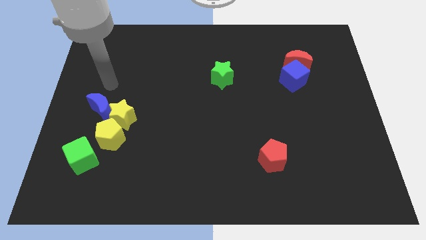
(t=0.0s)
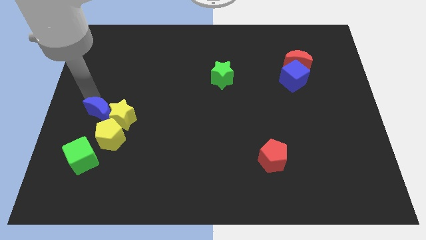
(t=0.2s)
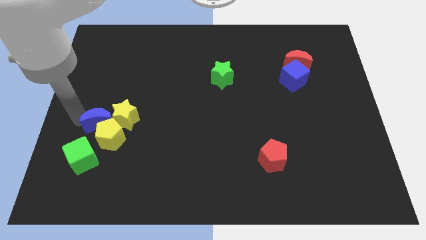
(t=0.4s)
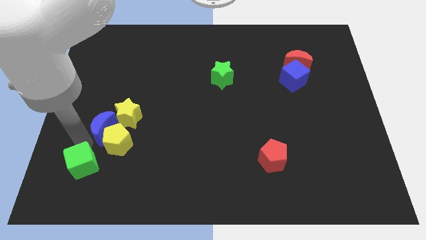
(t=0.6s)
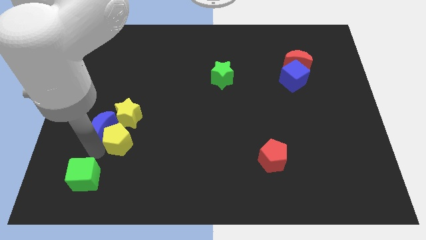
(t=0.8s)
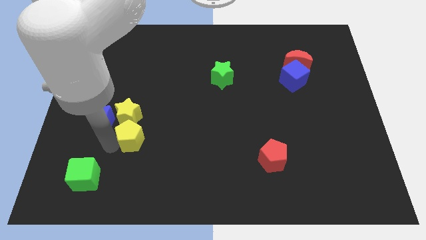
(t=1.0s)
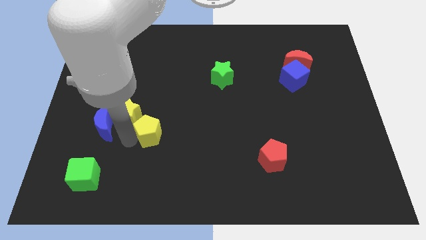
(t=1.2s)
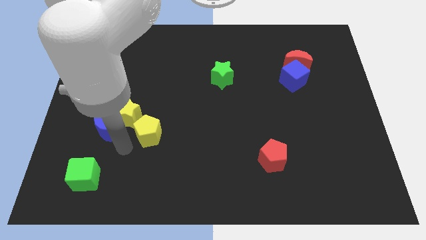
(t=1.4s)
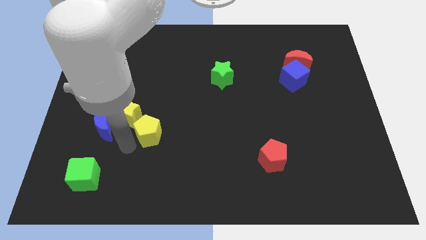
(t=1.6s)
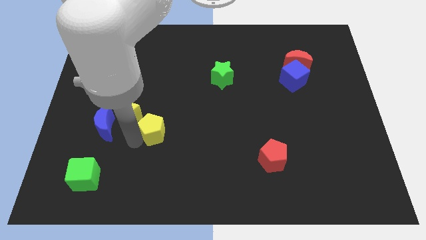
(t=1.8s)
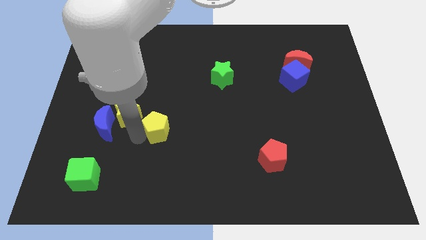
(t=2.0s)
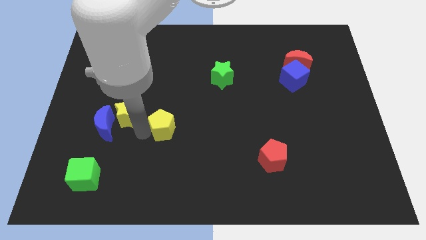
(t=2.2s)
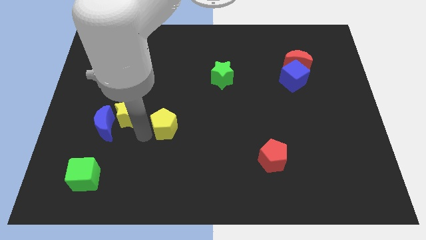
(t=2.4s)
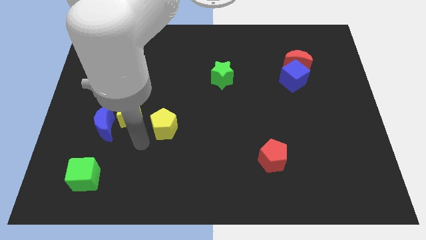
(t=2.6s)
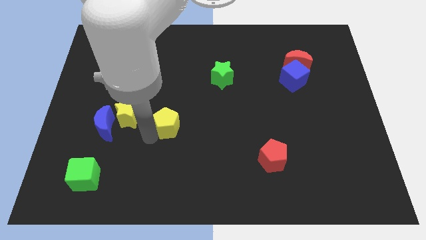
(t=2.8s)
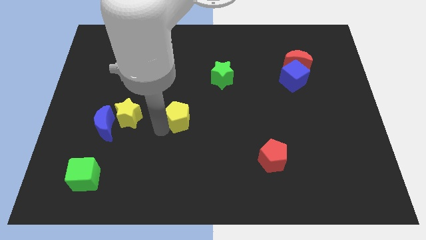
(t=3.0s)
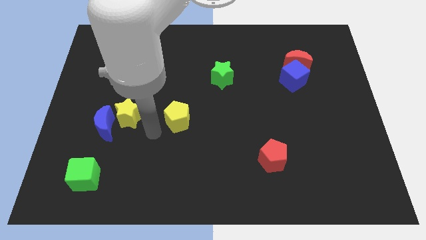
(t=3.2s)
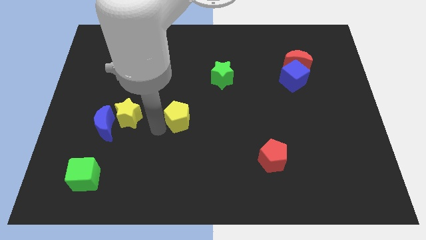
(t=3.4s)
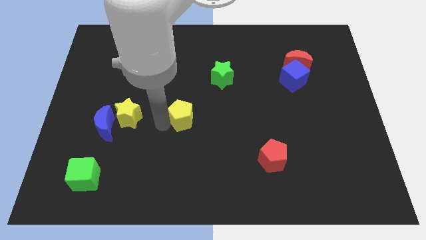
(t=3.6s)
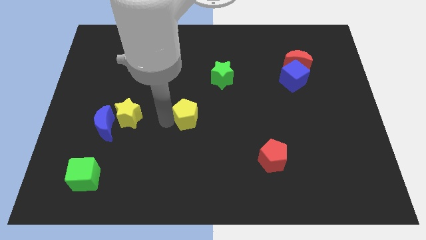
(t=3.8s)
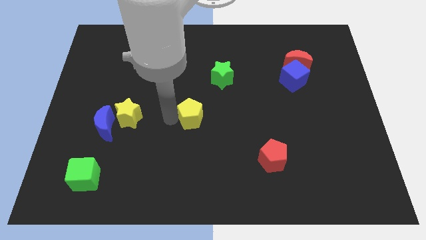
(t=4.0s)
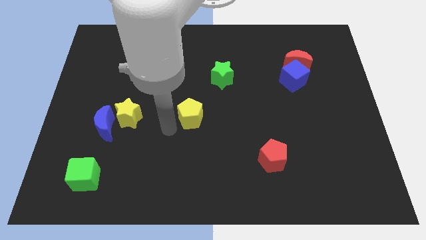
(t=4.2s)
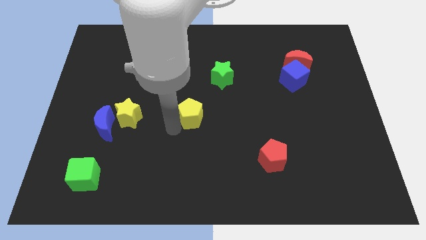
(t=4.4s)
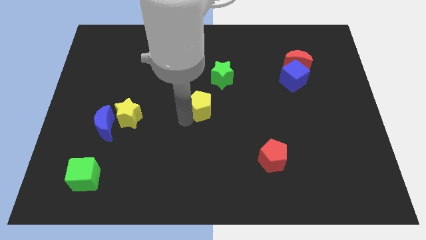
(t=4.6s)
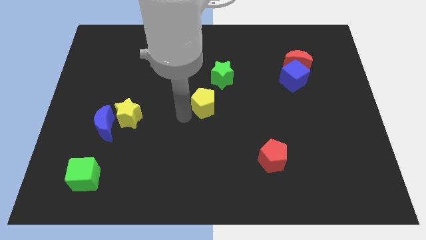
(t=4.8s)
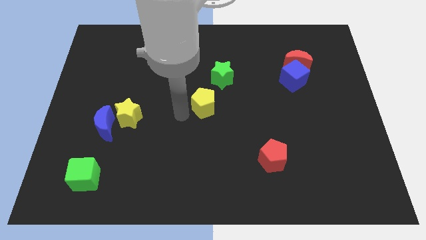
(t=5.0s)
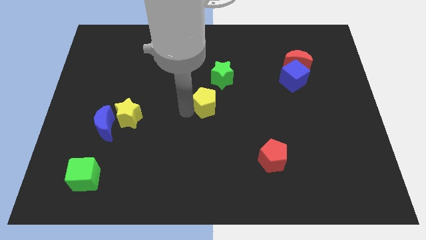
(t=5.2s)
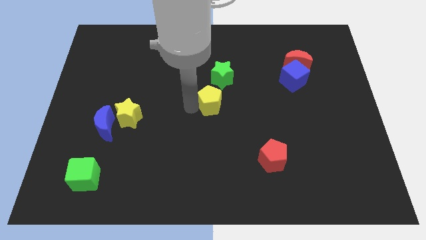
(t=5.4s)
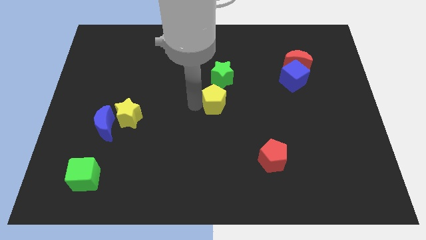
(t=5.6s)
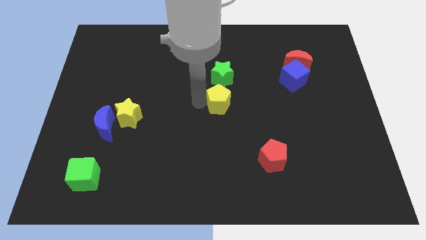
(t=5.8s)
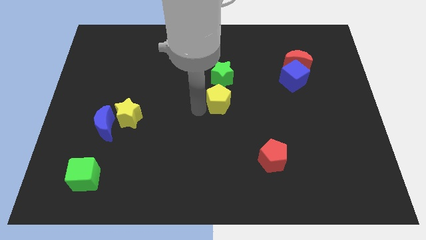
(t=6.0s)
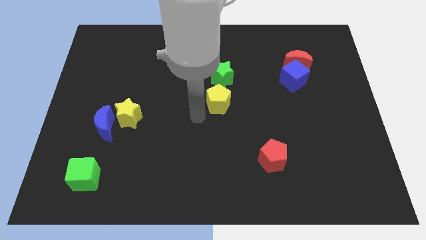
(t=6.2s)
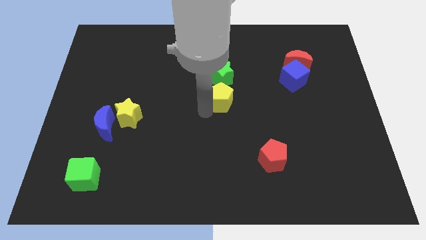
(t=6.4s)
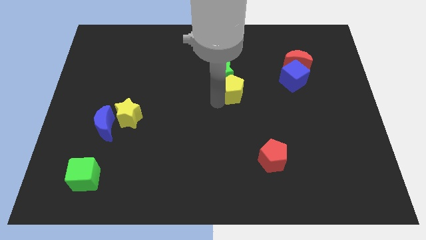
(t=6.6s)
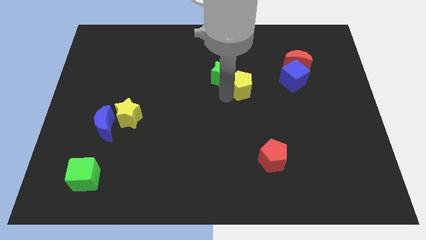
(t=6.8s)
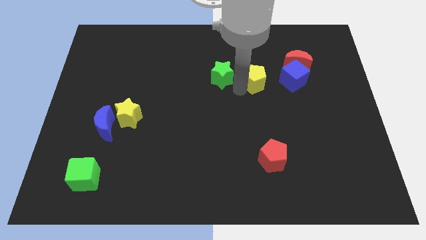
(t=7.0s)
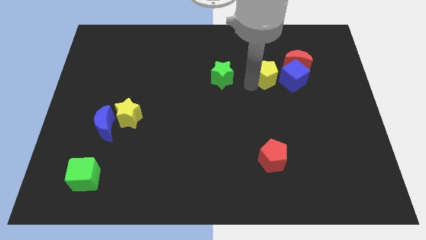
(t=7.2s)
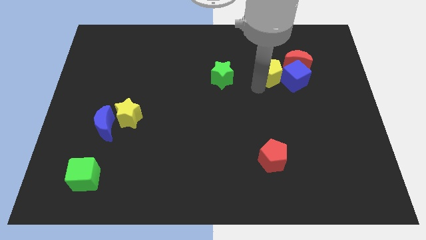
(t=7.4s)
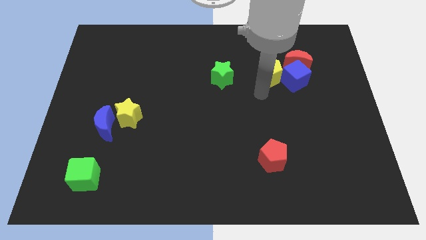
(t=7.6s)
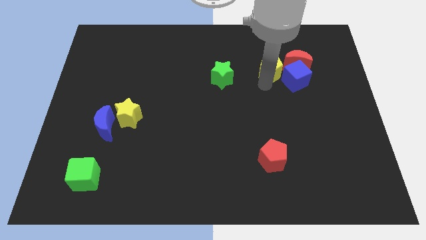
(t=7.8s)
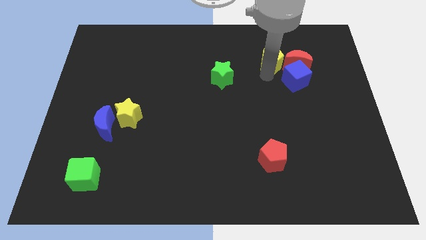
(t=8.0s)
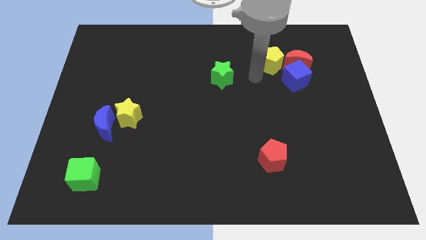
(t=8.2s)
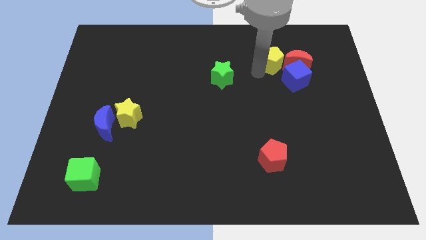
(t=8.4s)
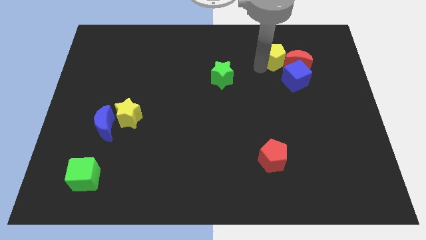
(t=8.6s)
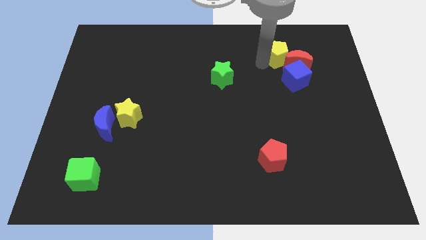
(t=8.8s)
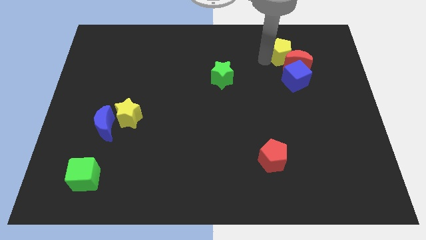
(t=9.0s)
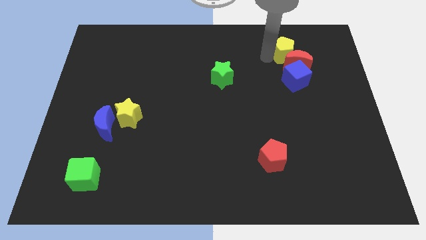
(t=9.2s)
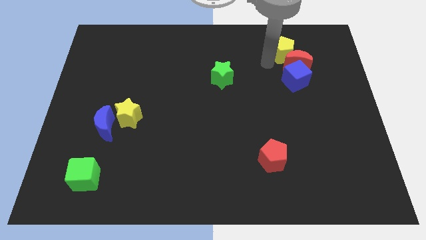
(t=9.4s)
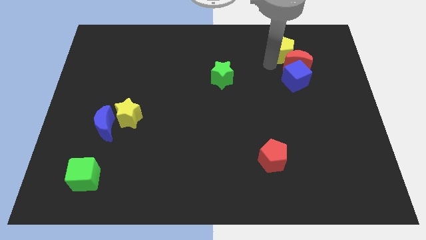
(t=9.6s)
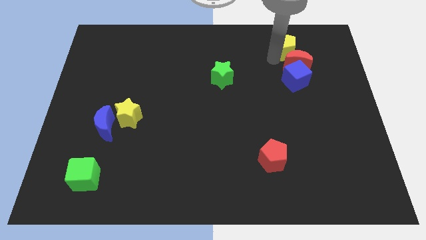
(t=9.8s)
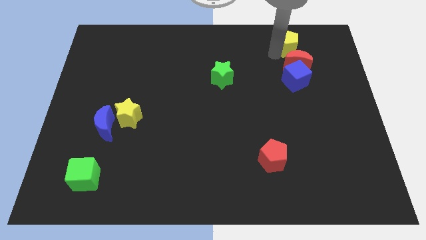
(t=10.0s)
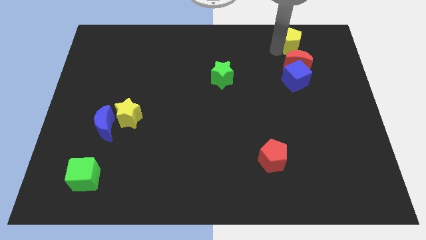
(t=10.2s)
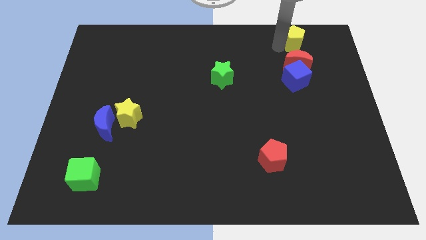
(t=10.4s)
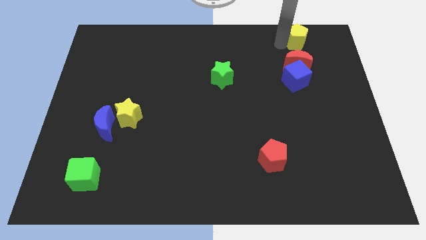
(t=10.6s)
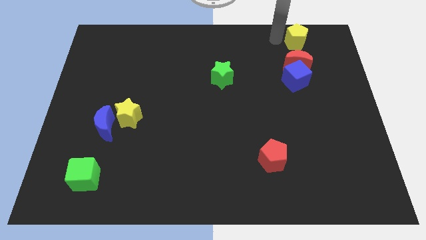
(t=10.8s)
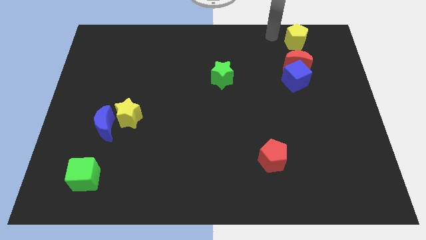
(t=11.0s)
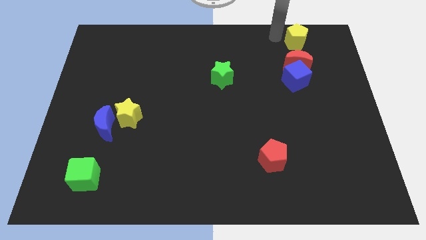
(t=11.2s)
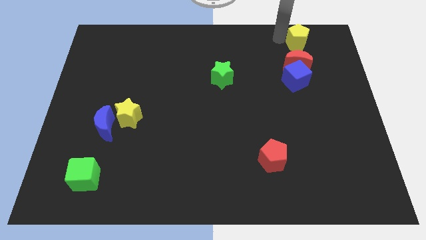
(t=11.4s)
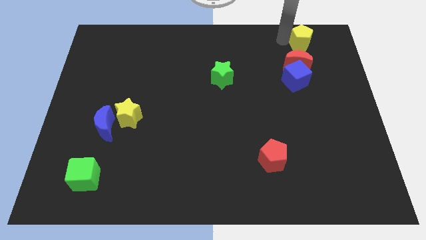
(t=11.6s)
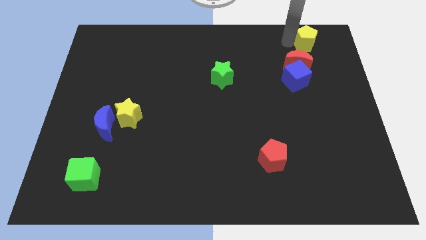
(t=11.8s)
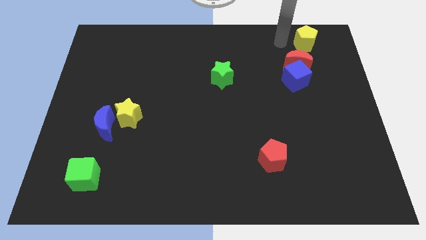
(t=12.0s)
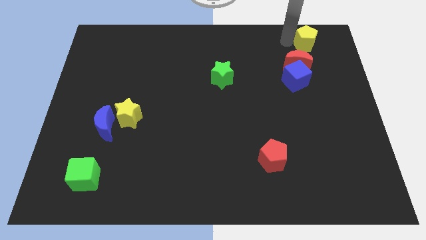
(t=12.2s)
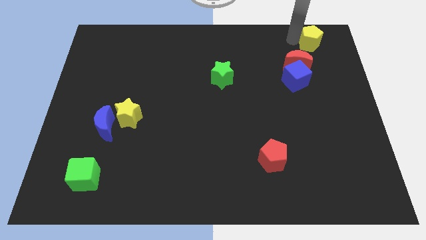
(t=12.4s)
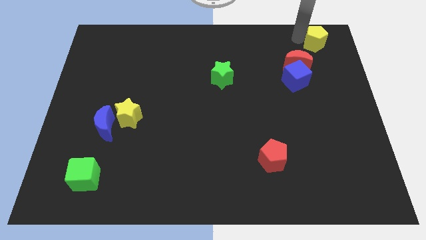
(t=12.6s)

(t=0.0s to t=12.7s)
push the yellow pentagon to the top right

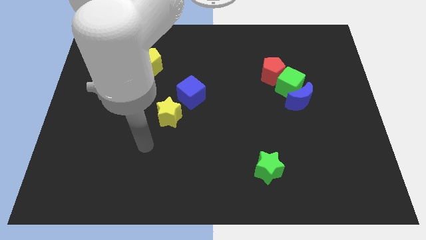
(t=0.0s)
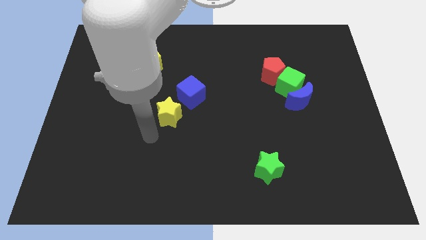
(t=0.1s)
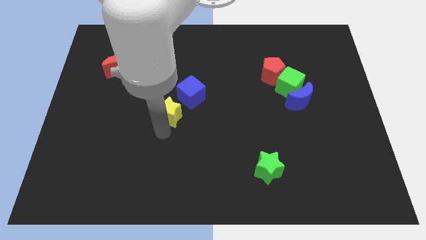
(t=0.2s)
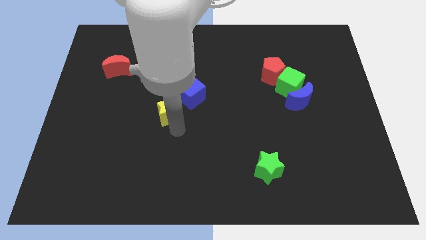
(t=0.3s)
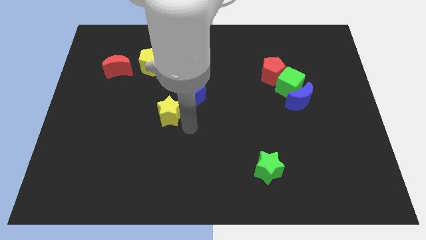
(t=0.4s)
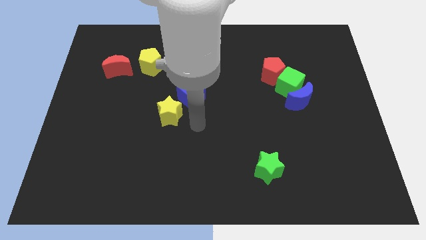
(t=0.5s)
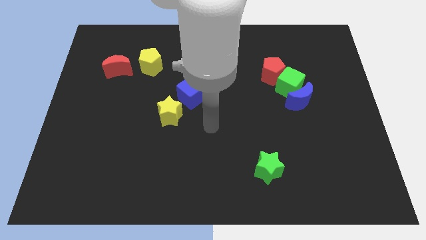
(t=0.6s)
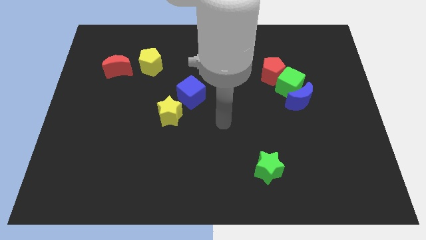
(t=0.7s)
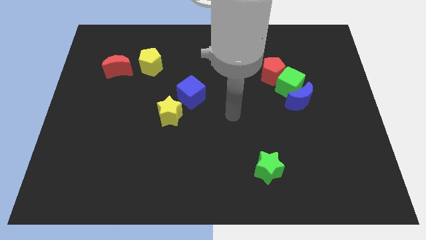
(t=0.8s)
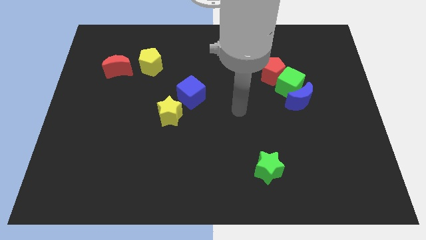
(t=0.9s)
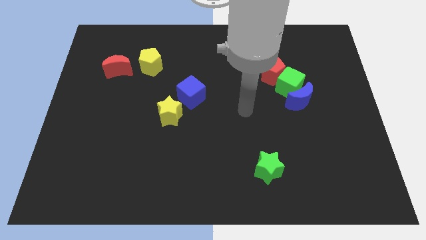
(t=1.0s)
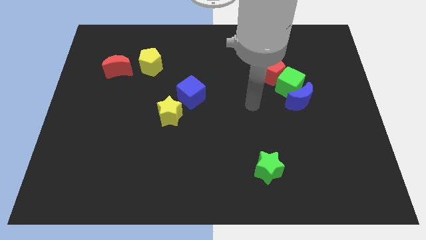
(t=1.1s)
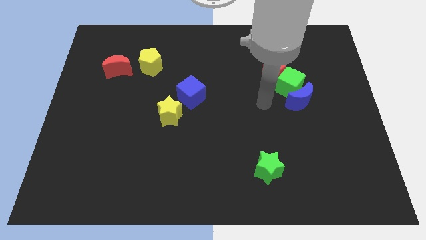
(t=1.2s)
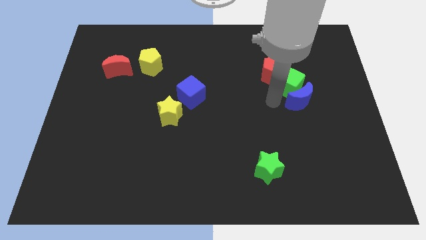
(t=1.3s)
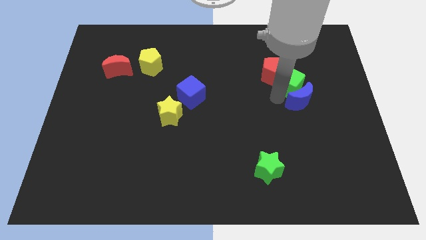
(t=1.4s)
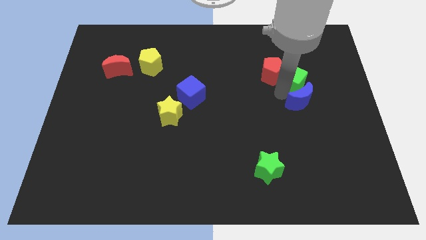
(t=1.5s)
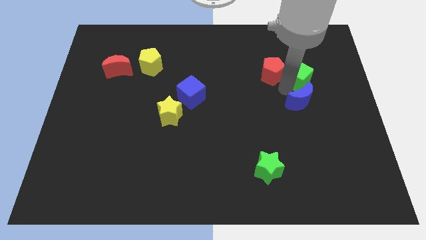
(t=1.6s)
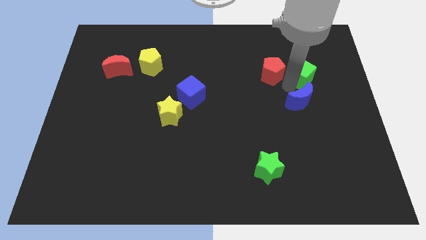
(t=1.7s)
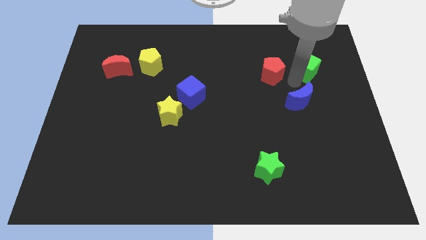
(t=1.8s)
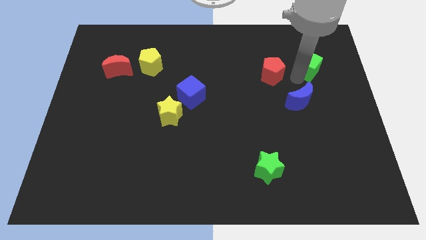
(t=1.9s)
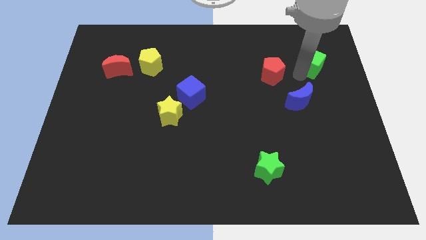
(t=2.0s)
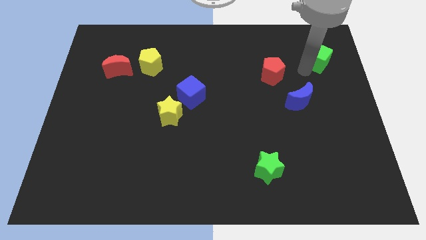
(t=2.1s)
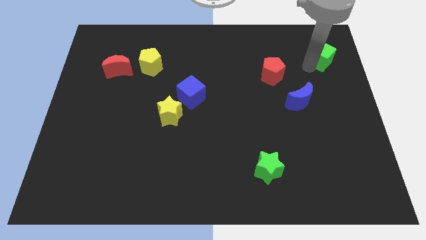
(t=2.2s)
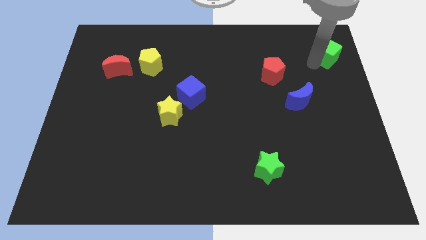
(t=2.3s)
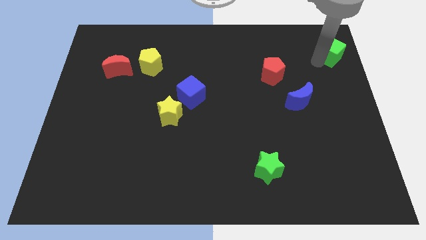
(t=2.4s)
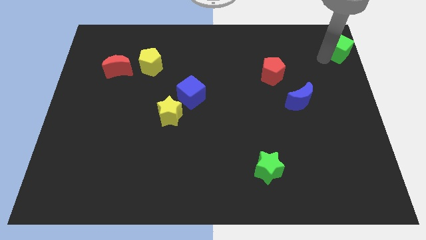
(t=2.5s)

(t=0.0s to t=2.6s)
slide the green cube to the top right corner
